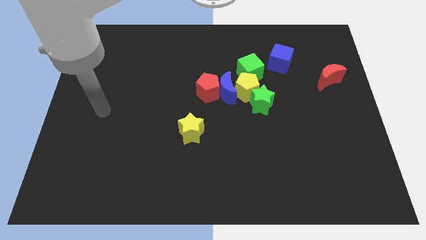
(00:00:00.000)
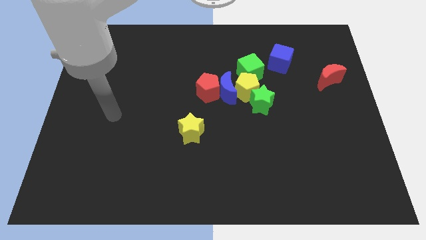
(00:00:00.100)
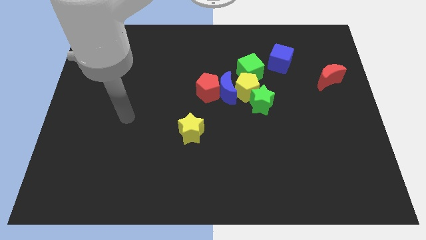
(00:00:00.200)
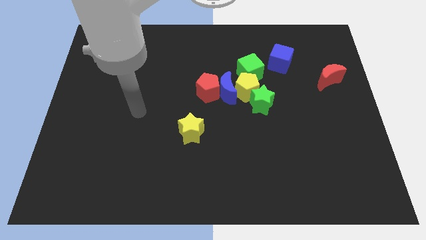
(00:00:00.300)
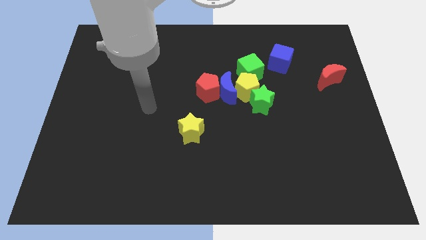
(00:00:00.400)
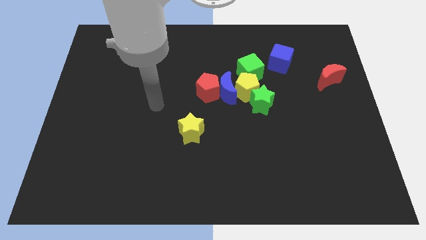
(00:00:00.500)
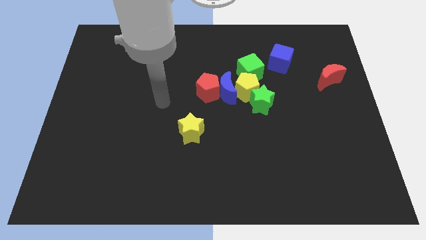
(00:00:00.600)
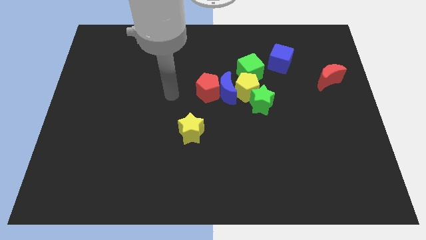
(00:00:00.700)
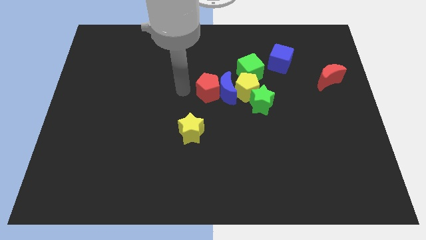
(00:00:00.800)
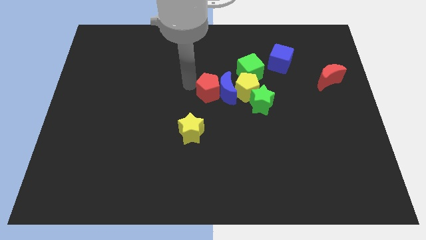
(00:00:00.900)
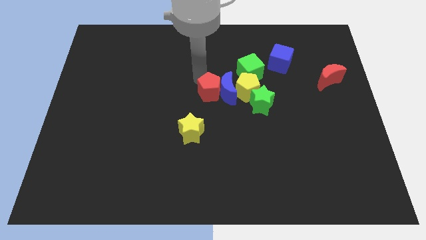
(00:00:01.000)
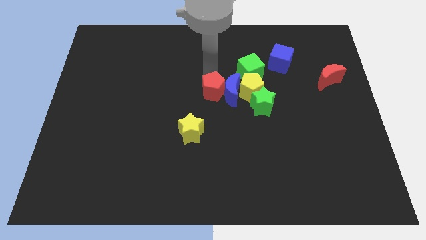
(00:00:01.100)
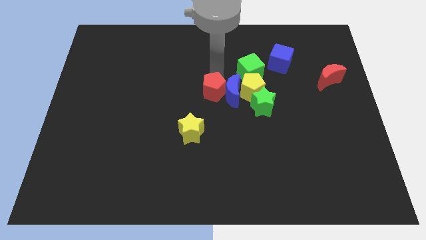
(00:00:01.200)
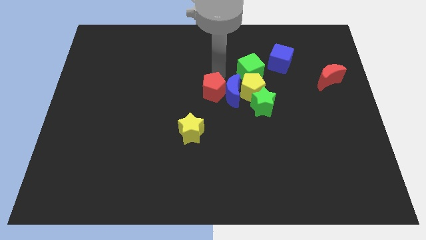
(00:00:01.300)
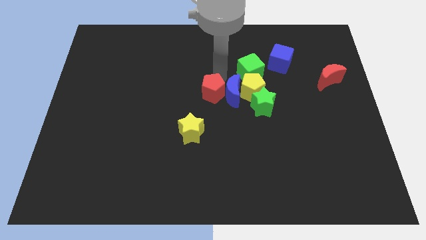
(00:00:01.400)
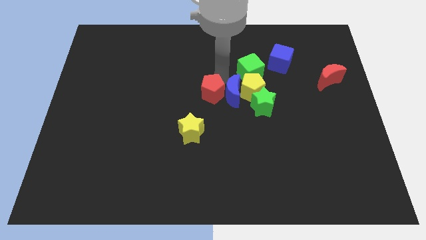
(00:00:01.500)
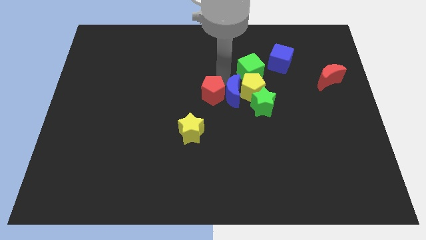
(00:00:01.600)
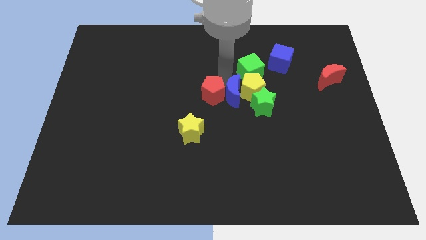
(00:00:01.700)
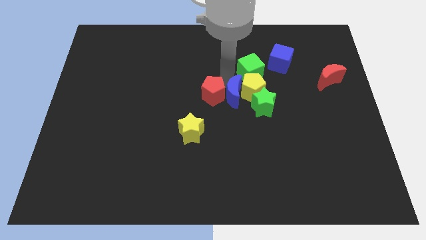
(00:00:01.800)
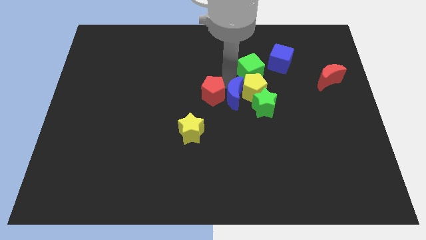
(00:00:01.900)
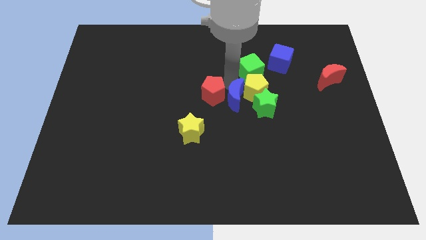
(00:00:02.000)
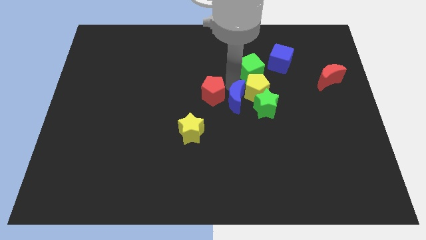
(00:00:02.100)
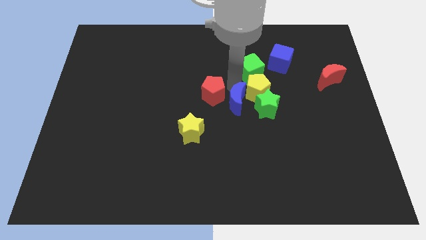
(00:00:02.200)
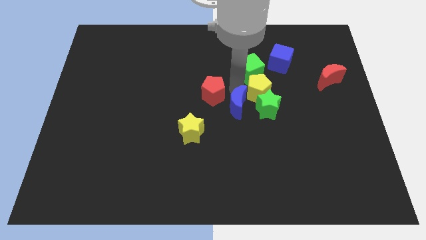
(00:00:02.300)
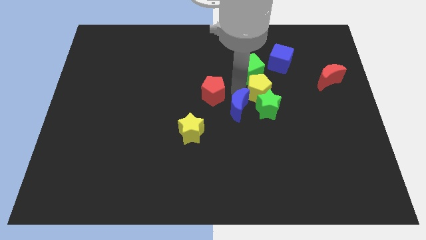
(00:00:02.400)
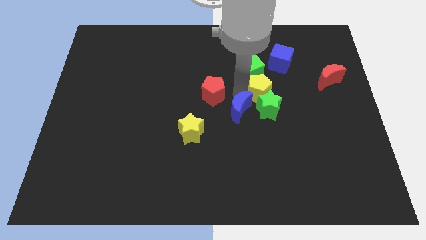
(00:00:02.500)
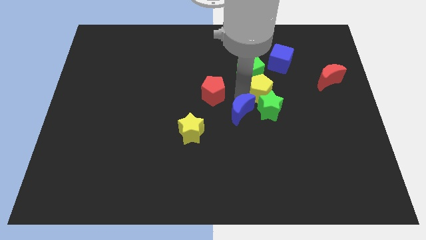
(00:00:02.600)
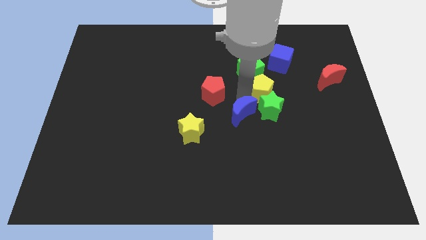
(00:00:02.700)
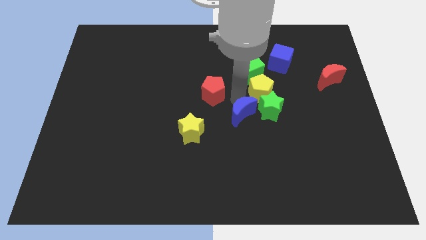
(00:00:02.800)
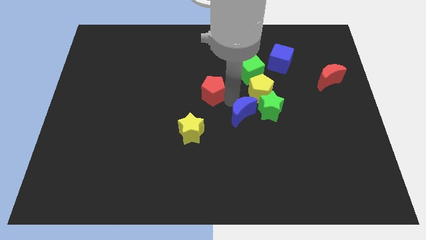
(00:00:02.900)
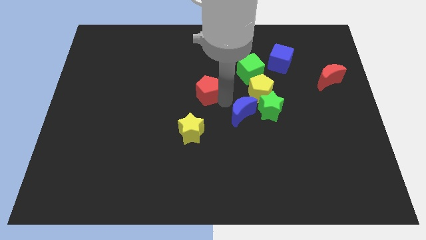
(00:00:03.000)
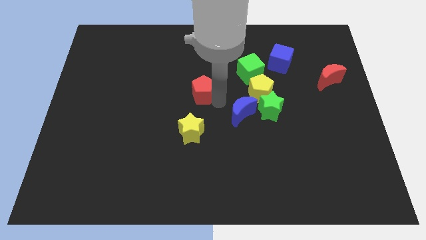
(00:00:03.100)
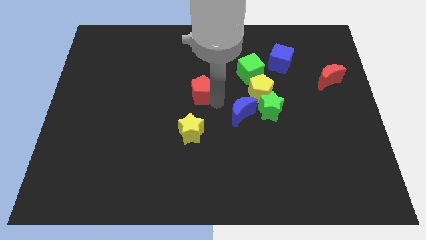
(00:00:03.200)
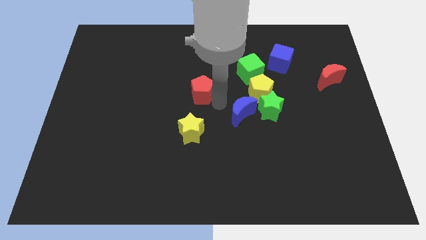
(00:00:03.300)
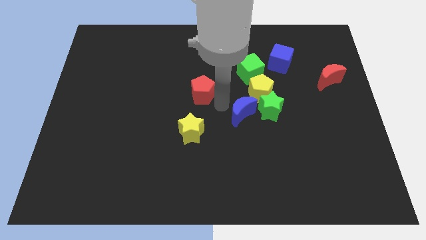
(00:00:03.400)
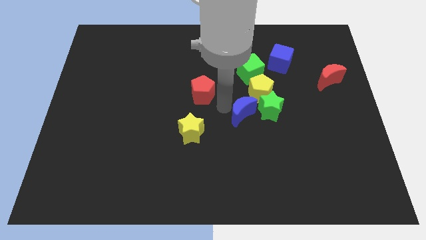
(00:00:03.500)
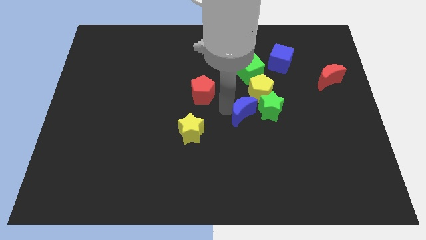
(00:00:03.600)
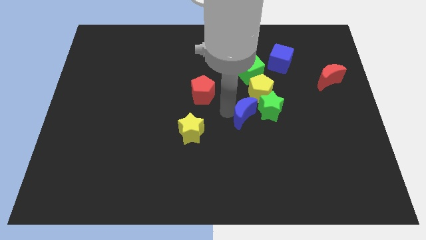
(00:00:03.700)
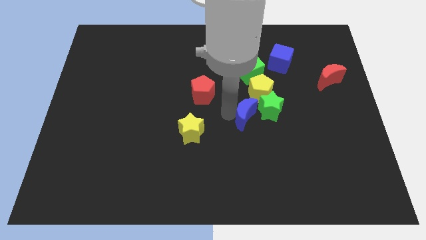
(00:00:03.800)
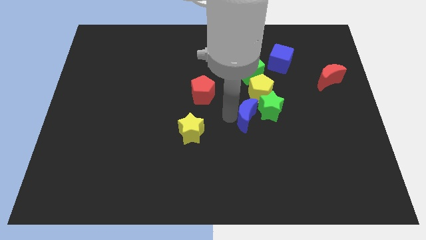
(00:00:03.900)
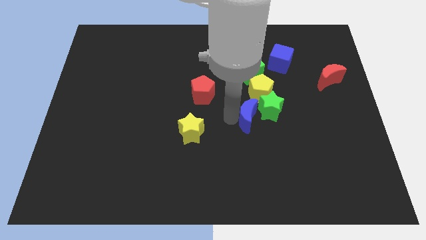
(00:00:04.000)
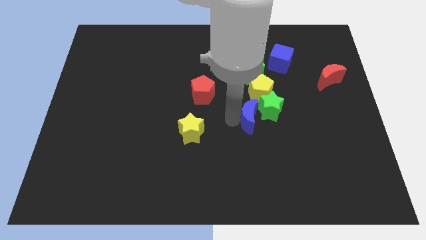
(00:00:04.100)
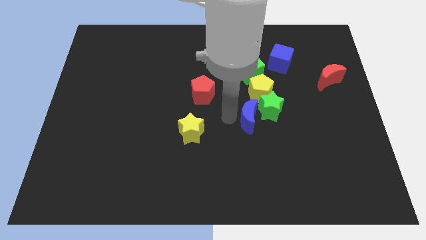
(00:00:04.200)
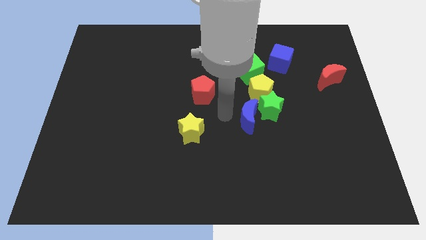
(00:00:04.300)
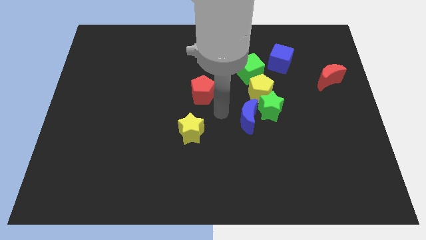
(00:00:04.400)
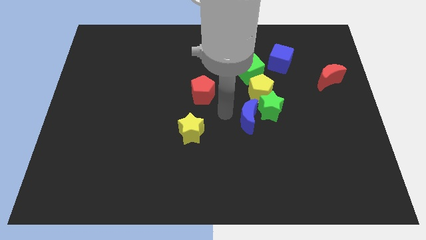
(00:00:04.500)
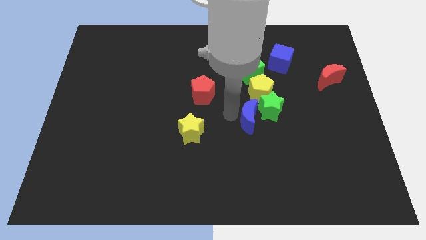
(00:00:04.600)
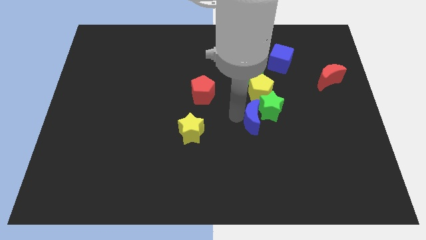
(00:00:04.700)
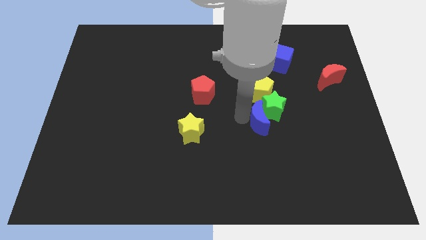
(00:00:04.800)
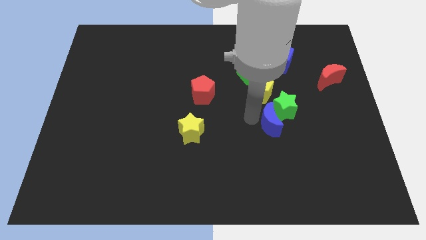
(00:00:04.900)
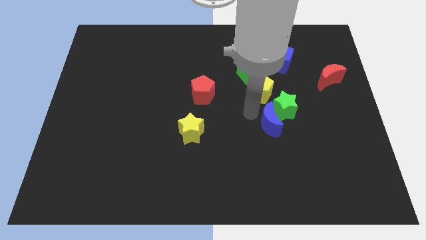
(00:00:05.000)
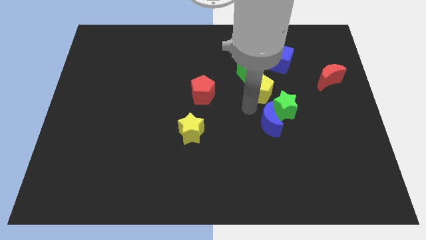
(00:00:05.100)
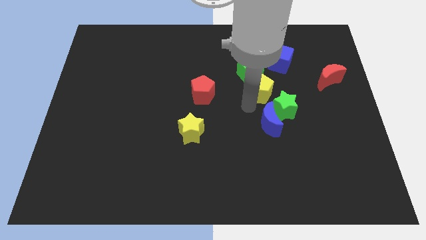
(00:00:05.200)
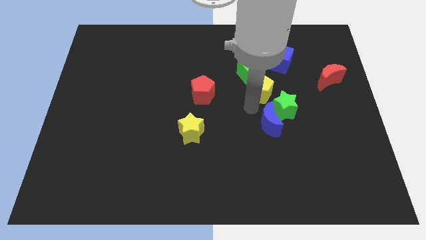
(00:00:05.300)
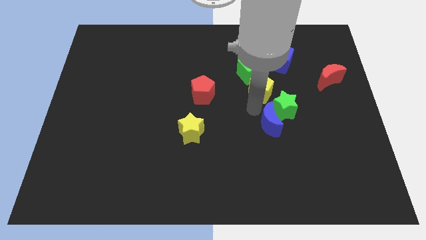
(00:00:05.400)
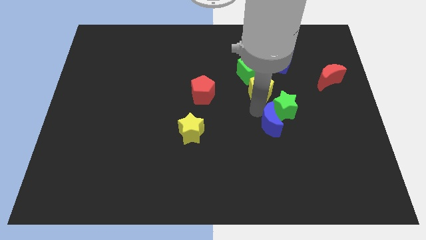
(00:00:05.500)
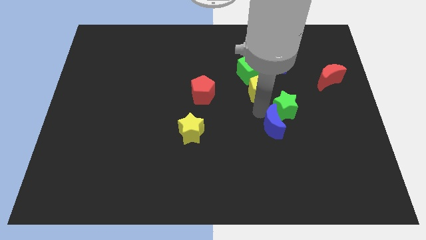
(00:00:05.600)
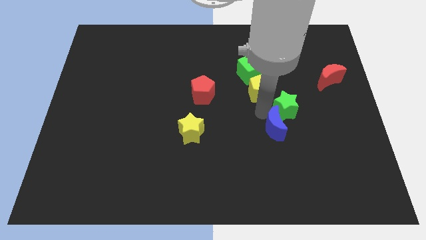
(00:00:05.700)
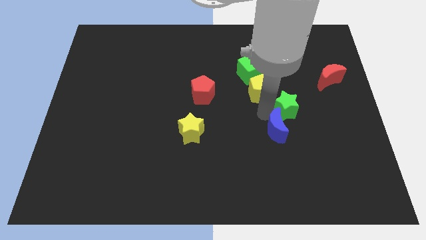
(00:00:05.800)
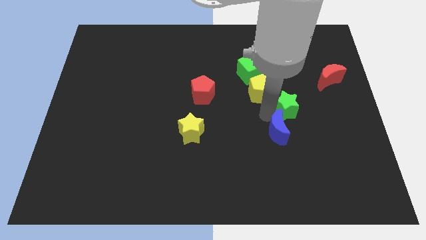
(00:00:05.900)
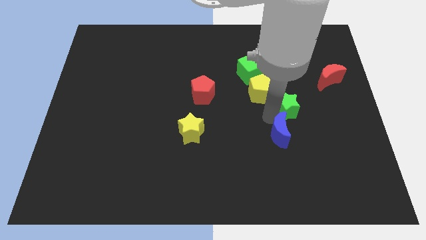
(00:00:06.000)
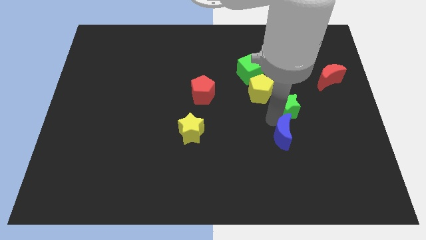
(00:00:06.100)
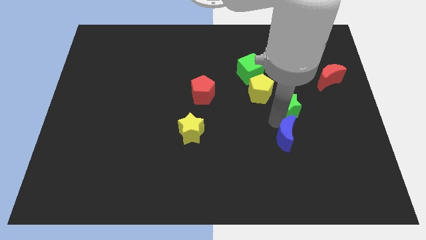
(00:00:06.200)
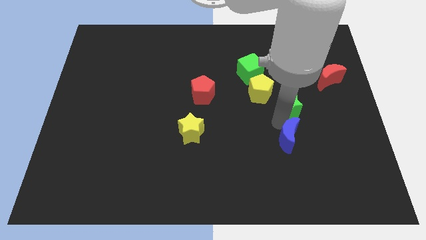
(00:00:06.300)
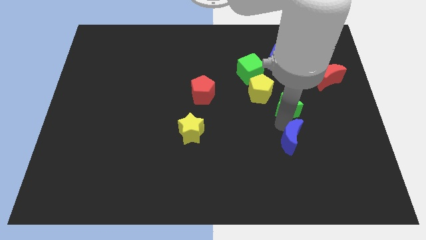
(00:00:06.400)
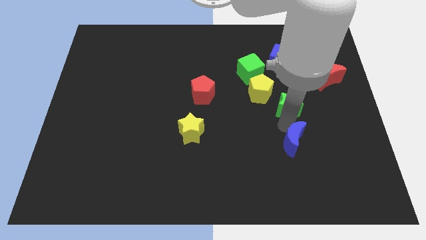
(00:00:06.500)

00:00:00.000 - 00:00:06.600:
move the blue moon down and then right

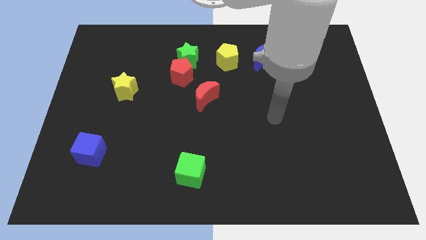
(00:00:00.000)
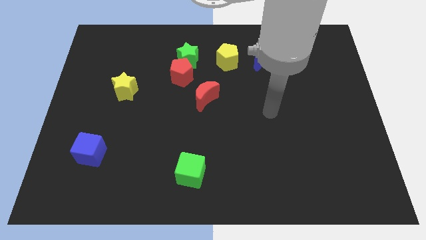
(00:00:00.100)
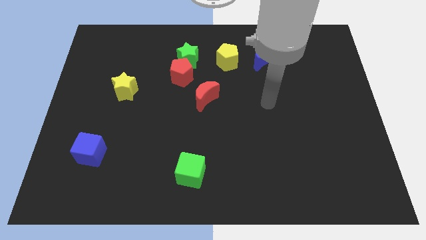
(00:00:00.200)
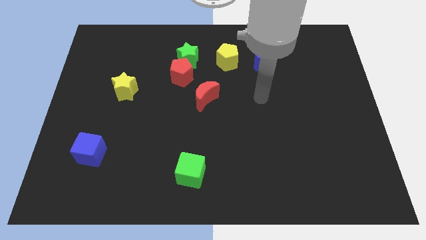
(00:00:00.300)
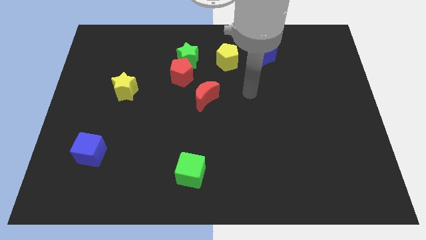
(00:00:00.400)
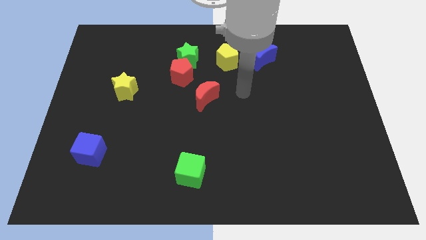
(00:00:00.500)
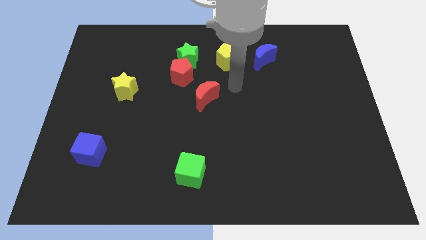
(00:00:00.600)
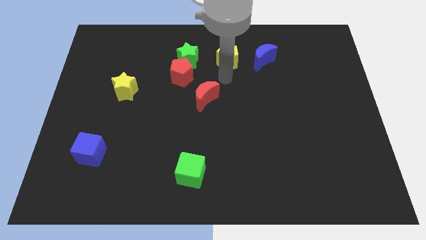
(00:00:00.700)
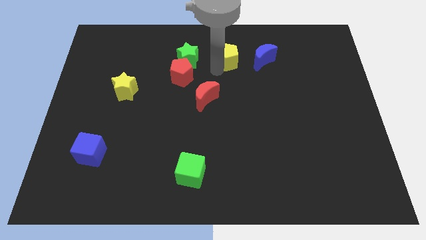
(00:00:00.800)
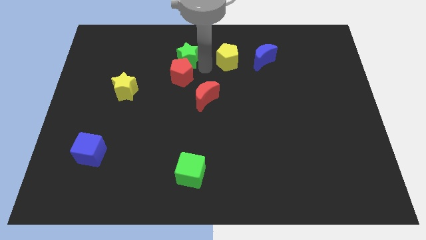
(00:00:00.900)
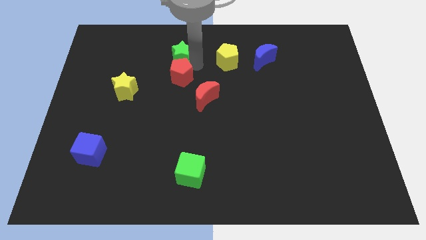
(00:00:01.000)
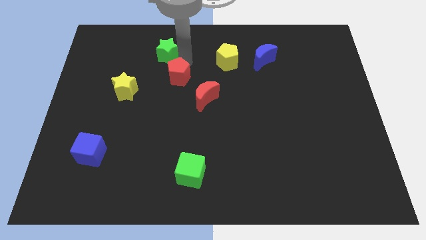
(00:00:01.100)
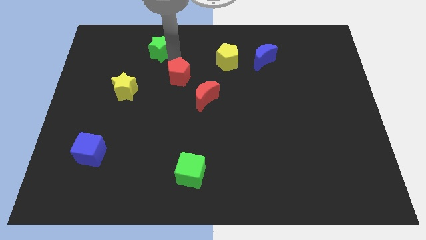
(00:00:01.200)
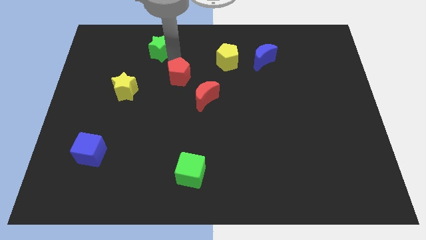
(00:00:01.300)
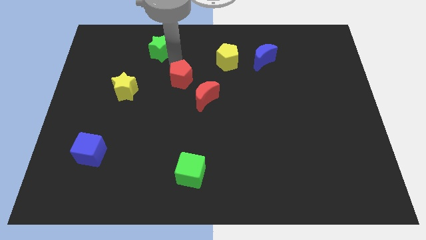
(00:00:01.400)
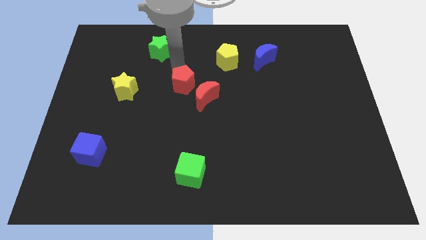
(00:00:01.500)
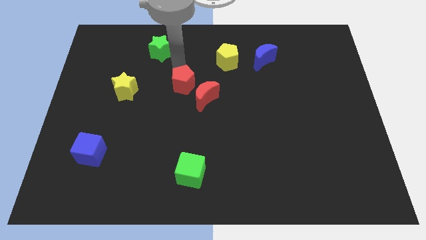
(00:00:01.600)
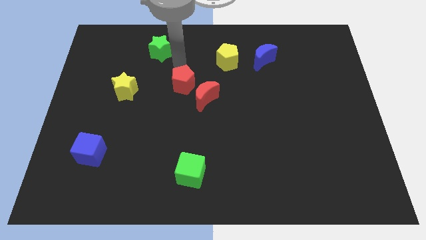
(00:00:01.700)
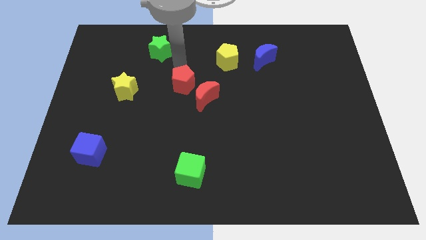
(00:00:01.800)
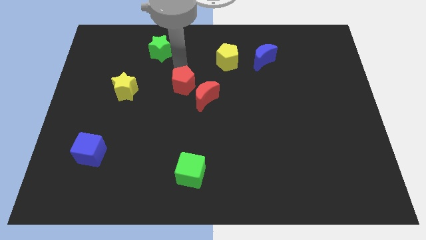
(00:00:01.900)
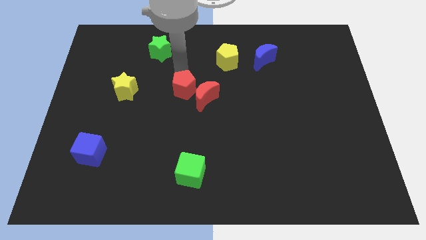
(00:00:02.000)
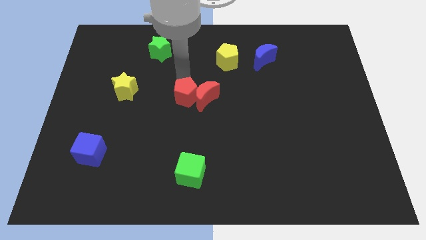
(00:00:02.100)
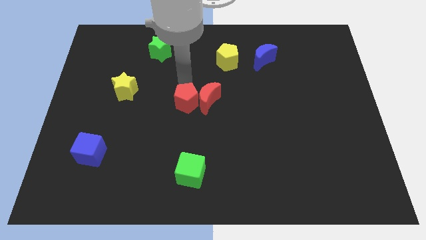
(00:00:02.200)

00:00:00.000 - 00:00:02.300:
push the red pentagon downwards slightly
